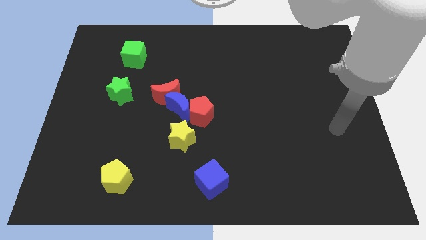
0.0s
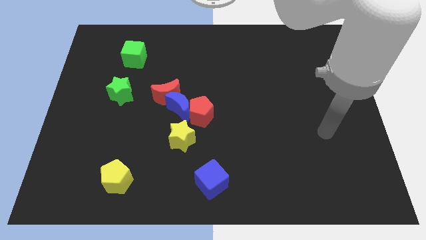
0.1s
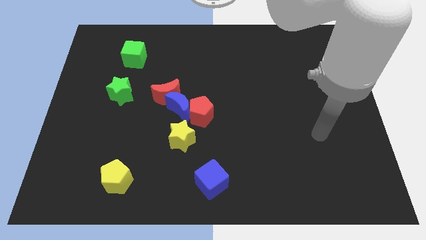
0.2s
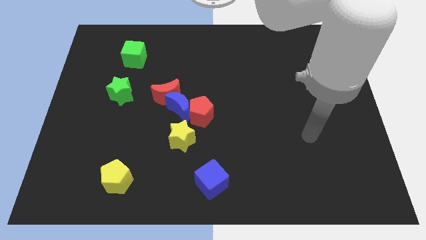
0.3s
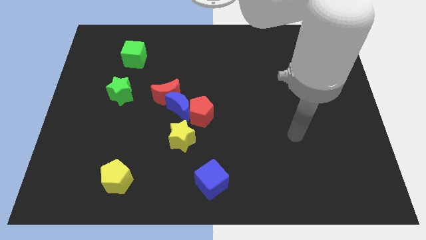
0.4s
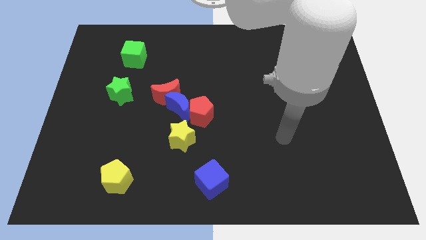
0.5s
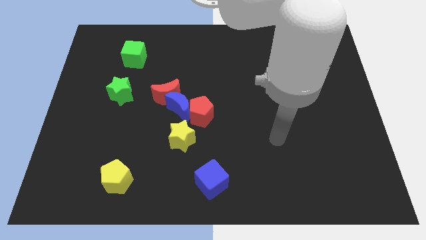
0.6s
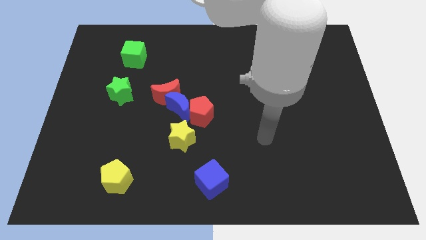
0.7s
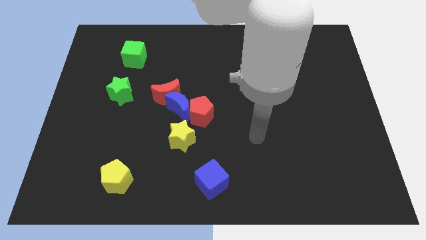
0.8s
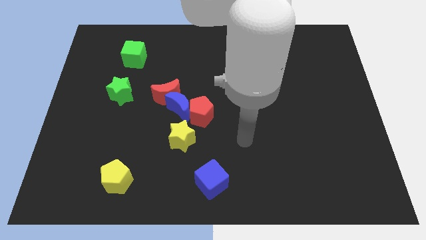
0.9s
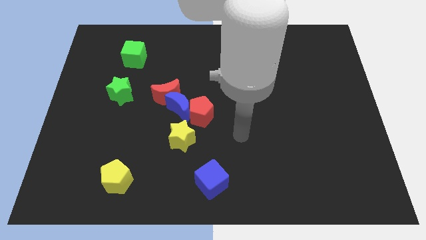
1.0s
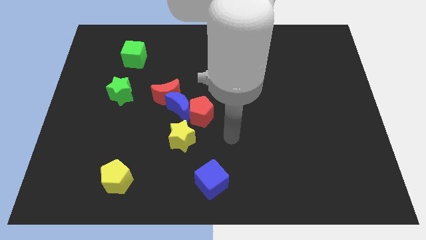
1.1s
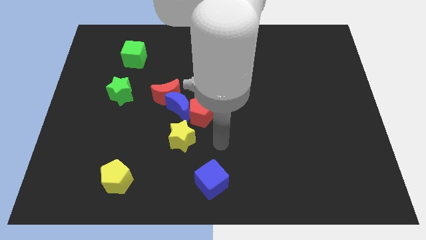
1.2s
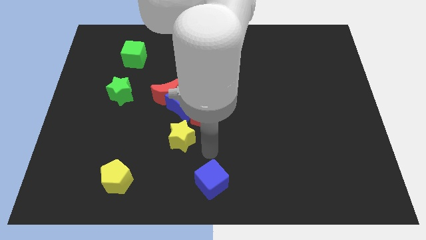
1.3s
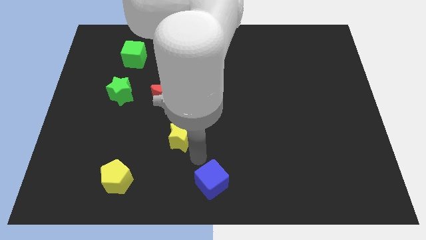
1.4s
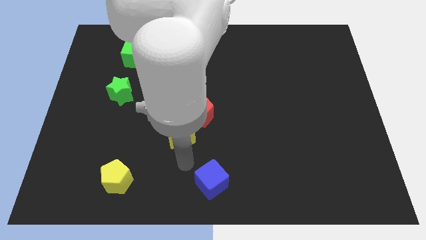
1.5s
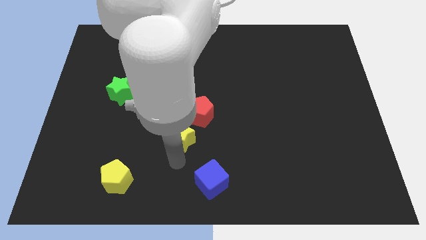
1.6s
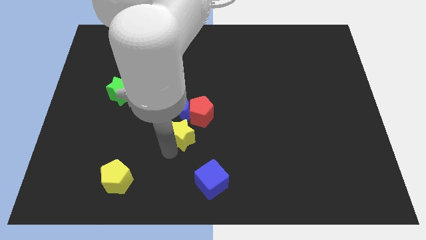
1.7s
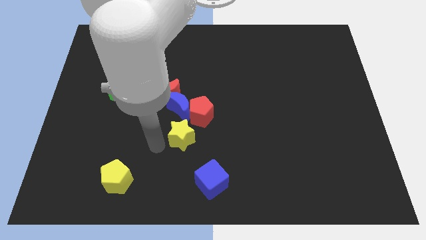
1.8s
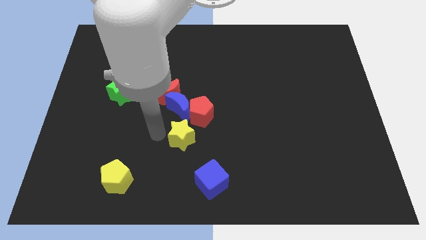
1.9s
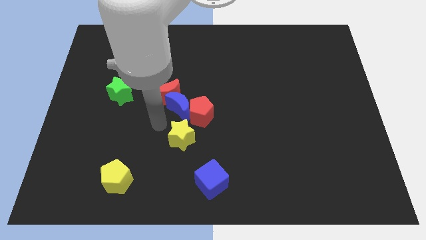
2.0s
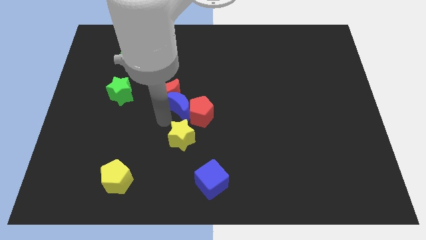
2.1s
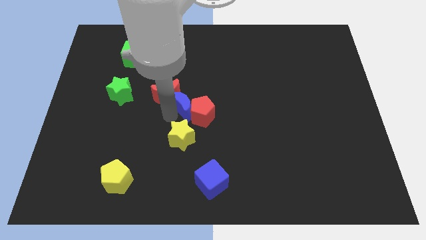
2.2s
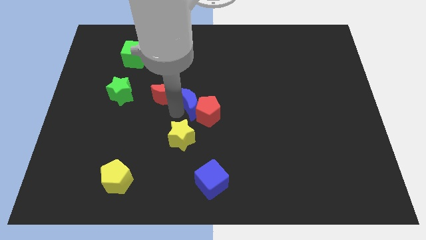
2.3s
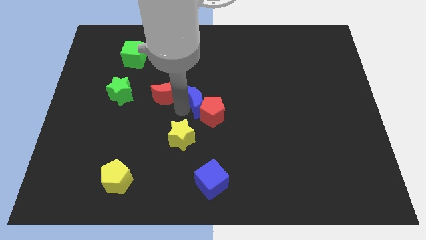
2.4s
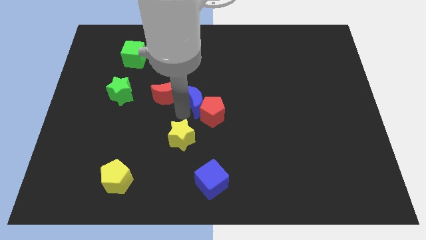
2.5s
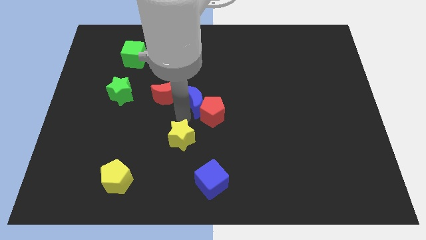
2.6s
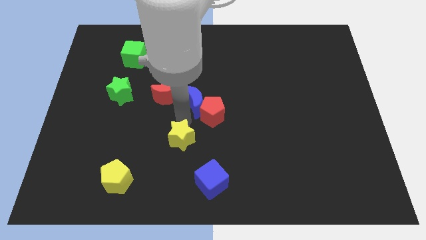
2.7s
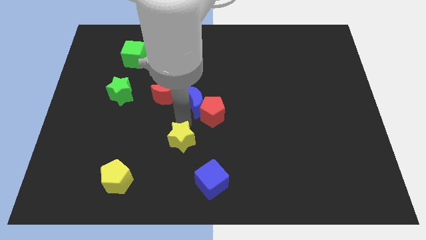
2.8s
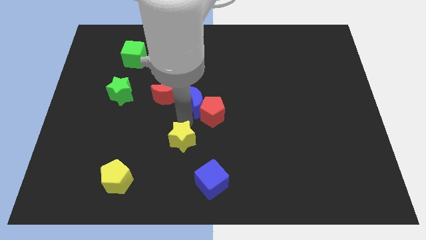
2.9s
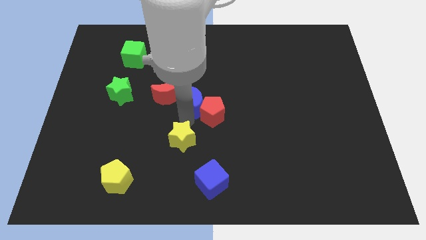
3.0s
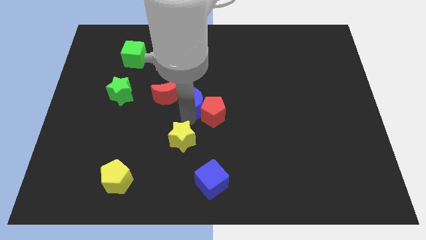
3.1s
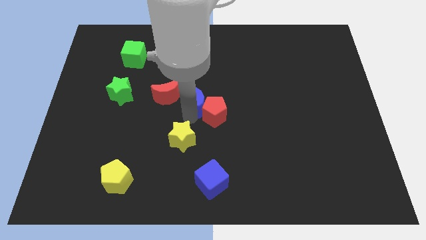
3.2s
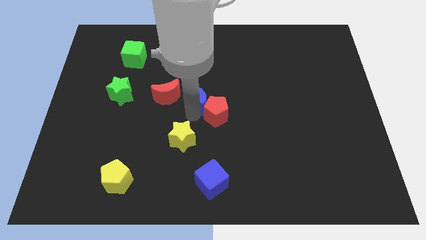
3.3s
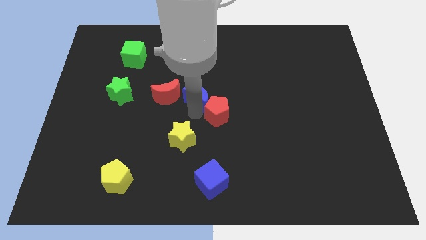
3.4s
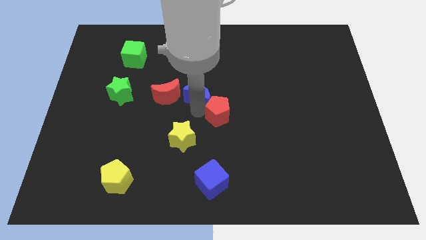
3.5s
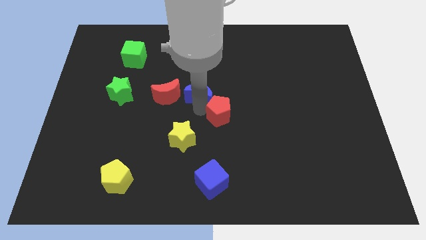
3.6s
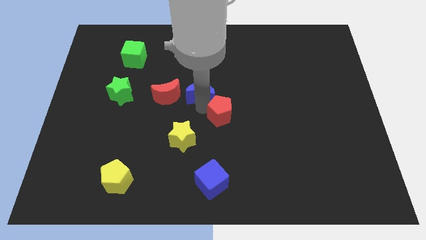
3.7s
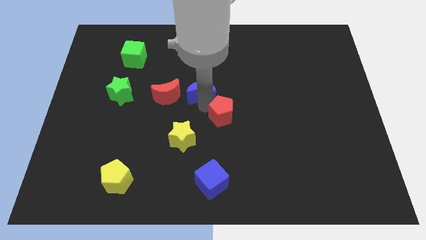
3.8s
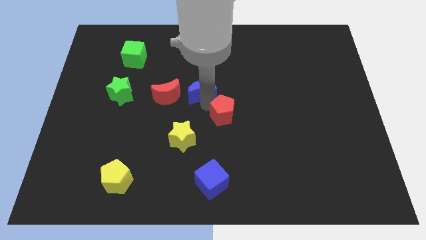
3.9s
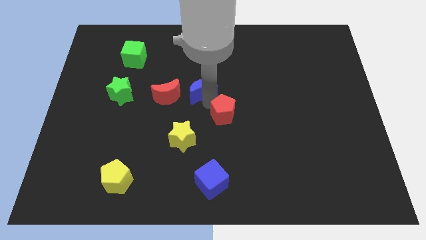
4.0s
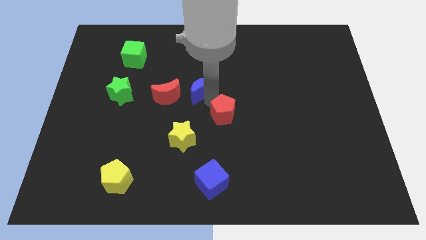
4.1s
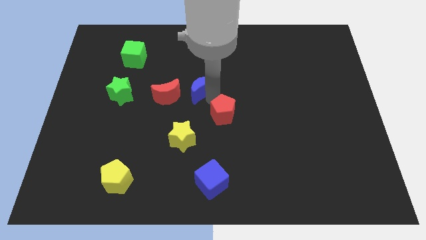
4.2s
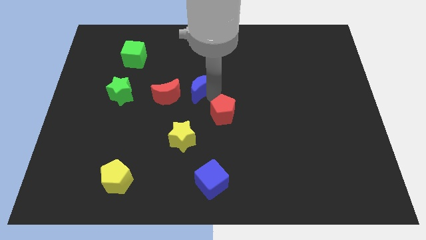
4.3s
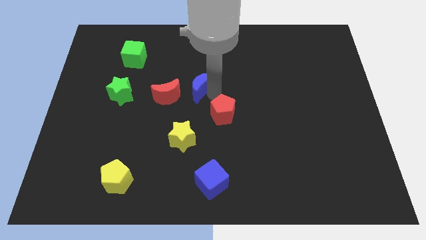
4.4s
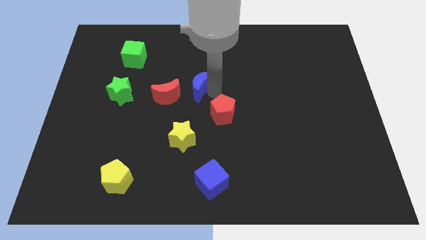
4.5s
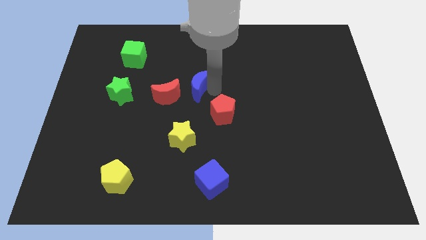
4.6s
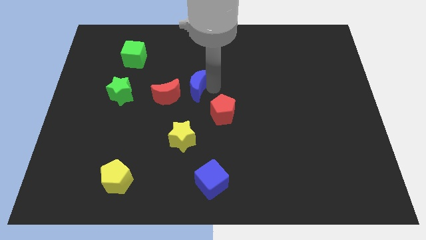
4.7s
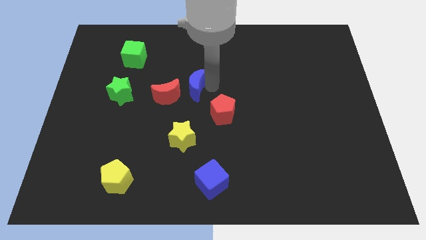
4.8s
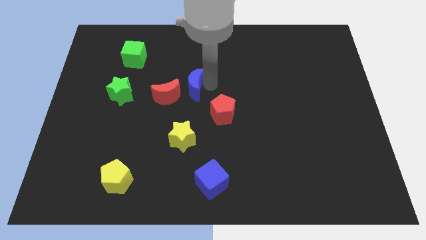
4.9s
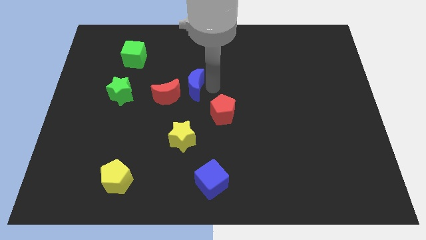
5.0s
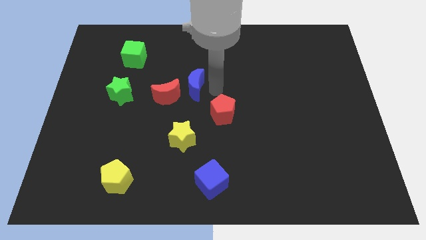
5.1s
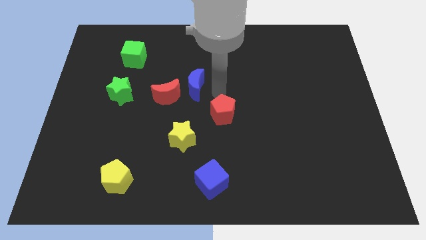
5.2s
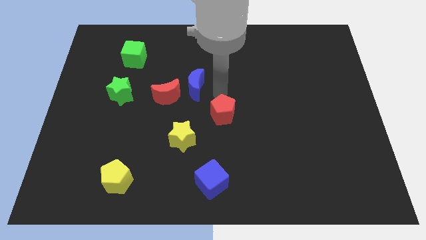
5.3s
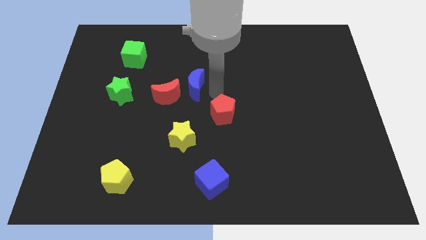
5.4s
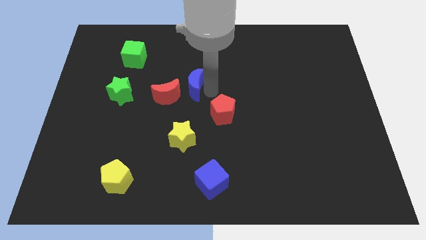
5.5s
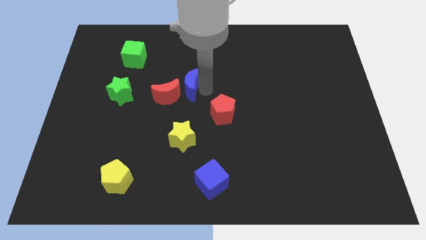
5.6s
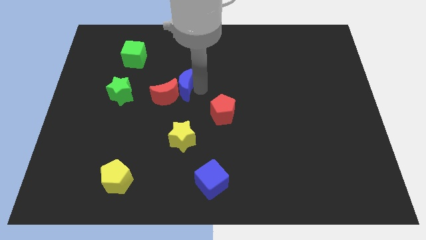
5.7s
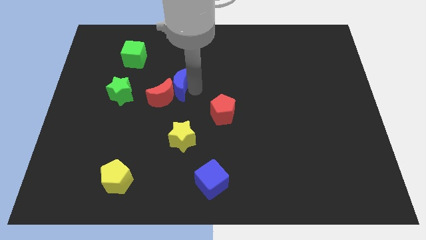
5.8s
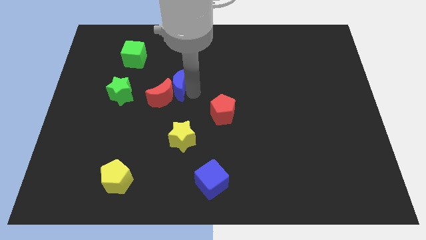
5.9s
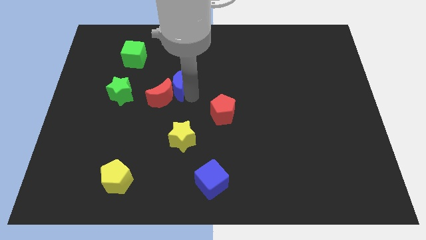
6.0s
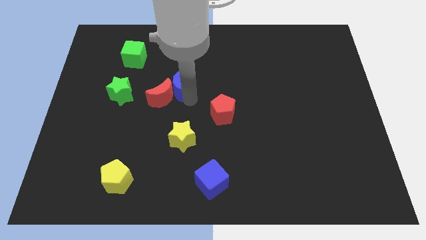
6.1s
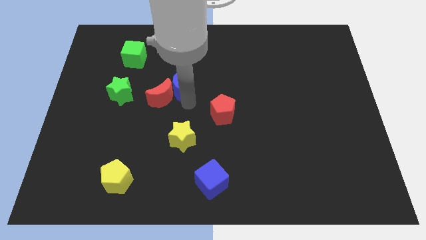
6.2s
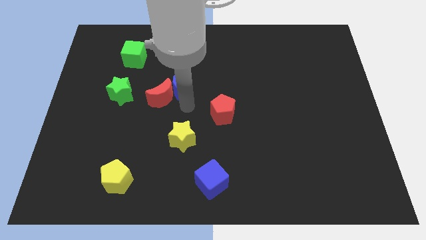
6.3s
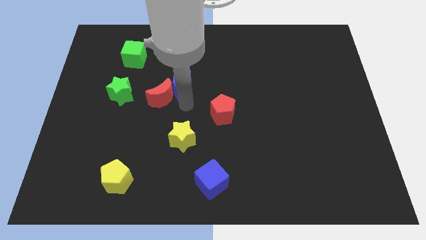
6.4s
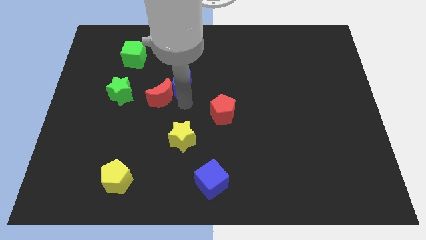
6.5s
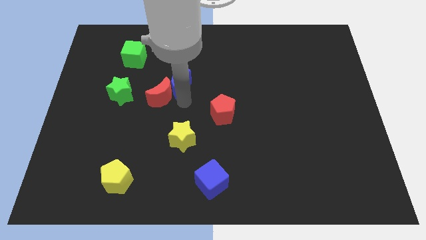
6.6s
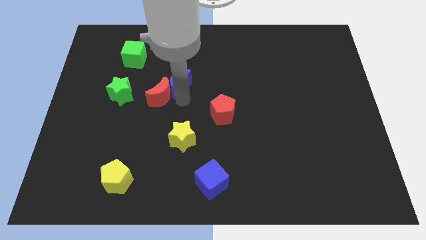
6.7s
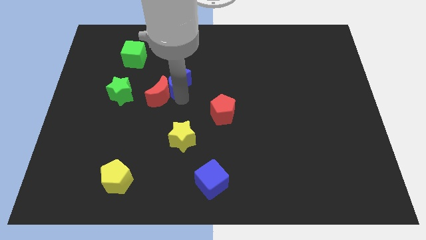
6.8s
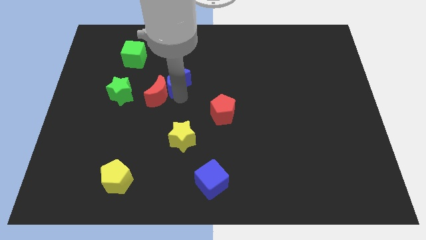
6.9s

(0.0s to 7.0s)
move the blue moon away from the red moon, red pentagon, and yellow star

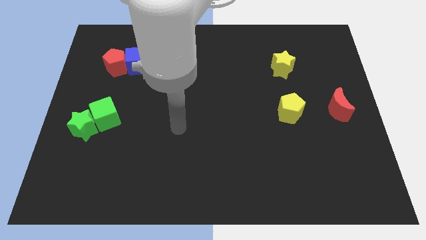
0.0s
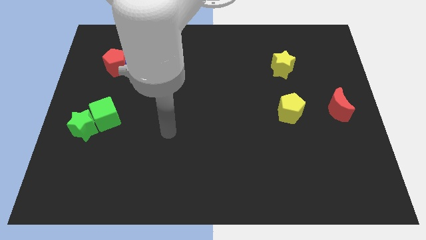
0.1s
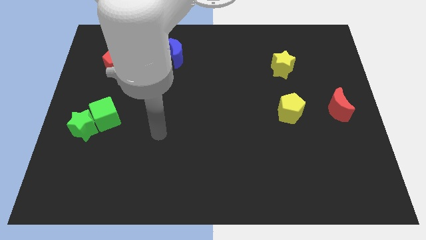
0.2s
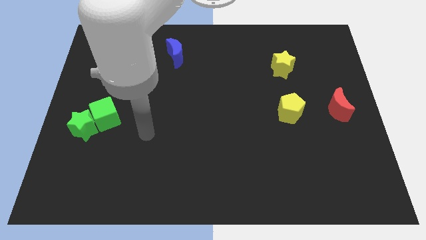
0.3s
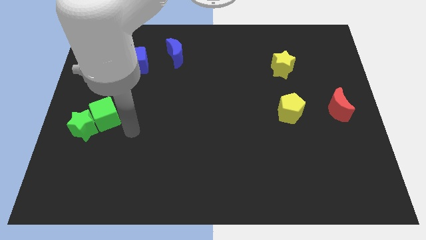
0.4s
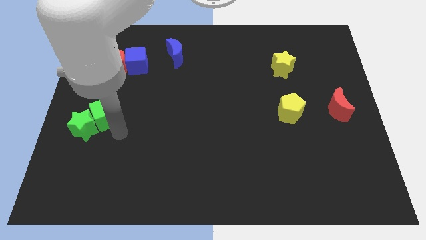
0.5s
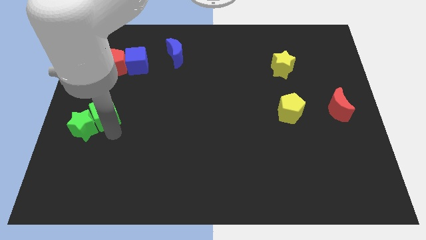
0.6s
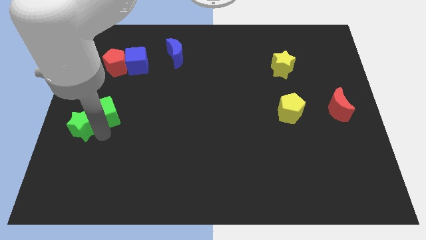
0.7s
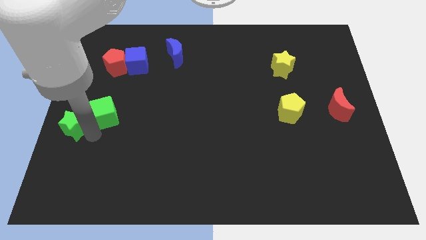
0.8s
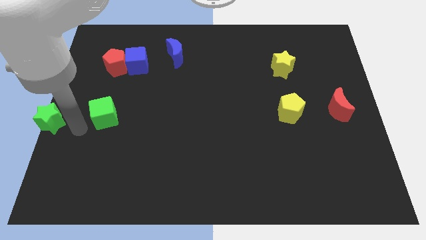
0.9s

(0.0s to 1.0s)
separate the green cube from the green star

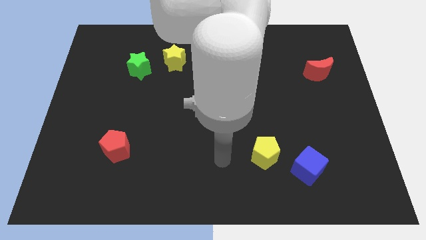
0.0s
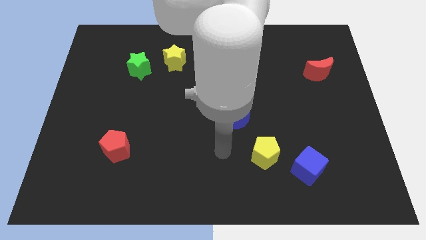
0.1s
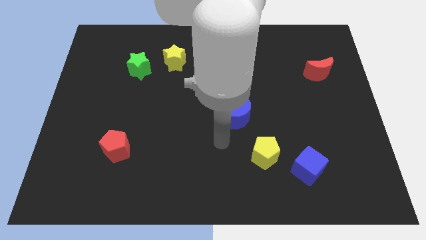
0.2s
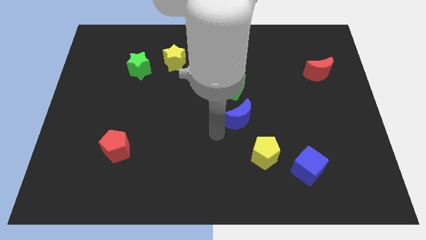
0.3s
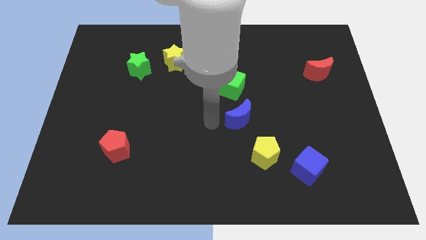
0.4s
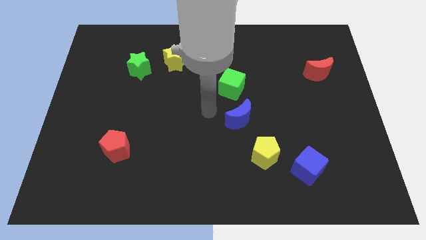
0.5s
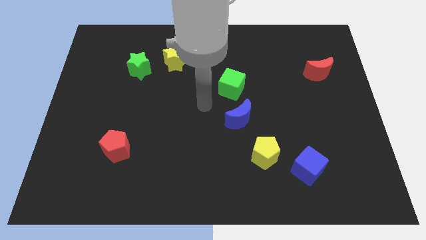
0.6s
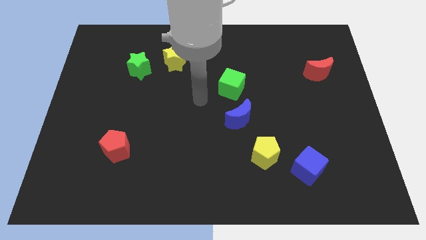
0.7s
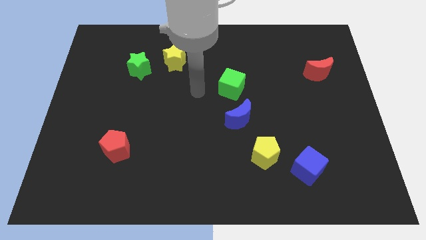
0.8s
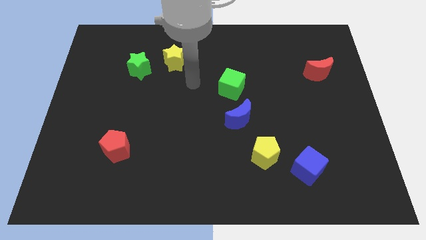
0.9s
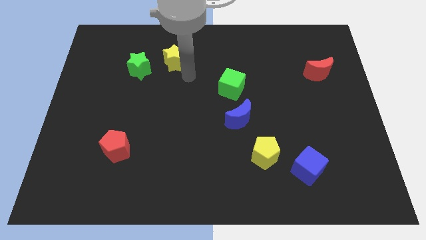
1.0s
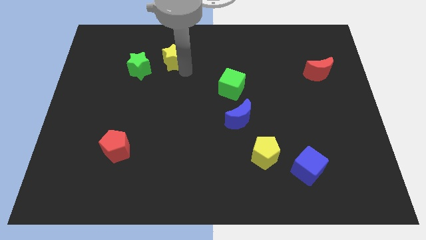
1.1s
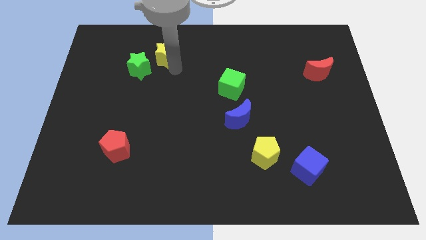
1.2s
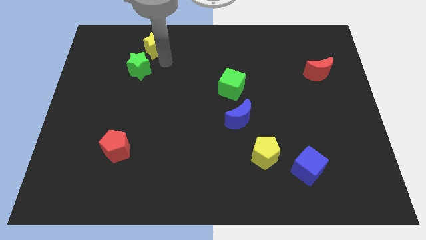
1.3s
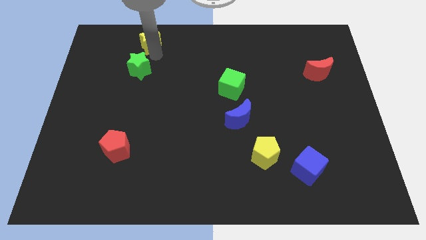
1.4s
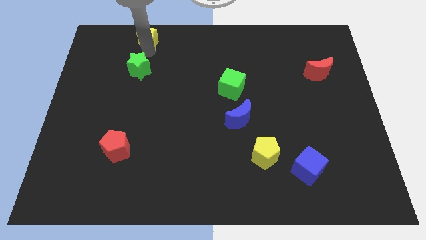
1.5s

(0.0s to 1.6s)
pull the green star apart from the yellow star

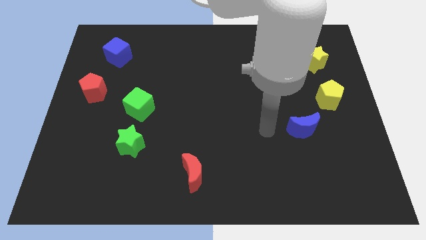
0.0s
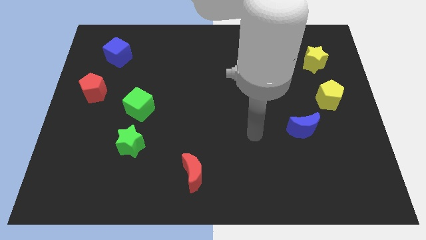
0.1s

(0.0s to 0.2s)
move the green cube away from the green star
